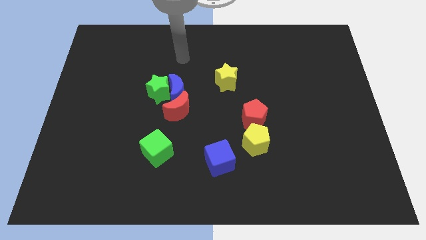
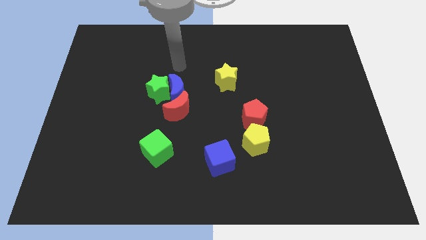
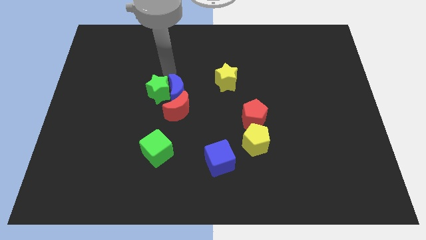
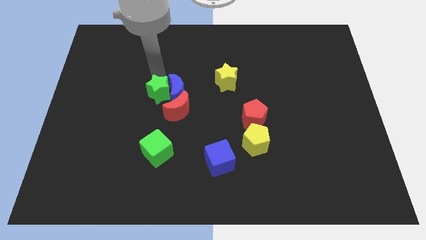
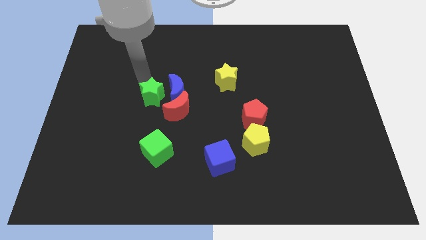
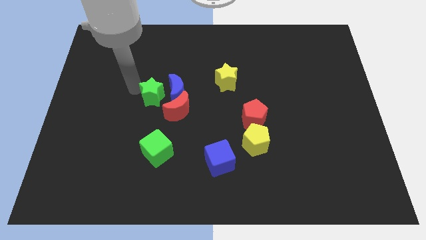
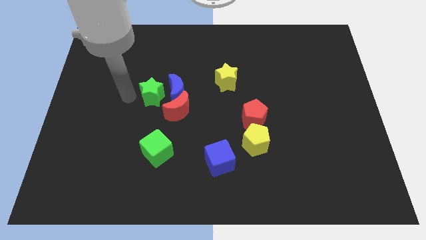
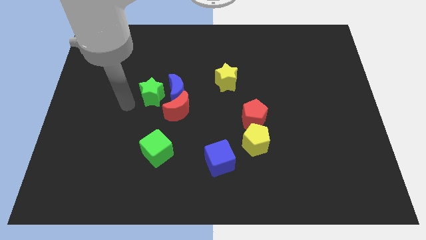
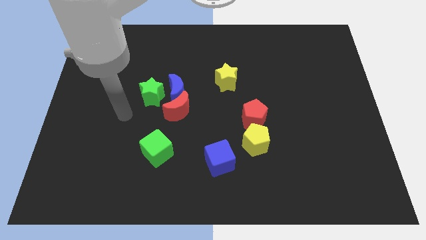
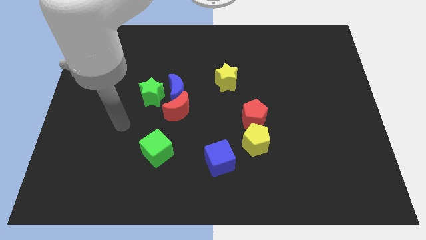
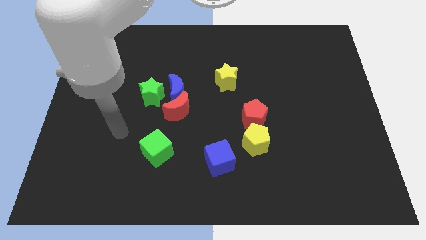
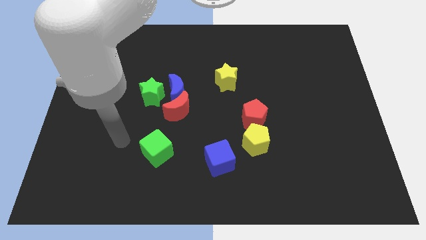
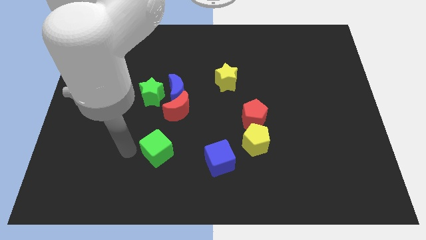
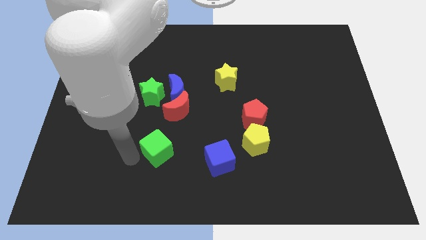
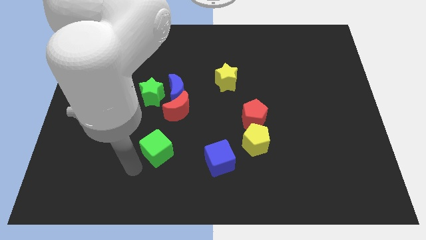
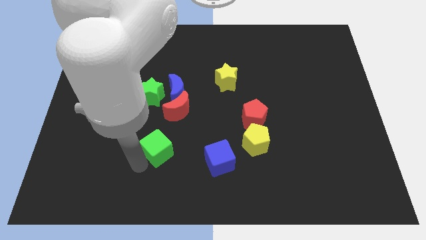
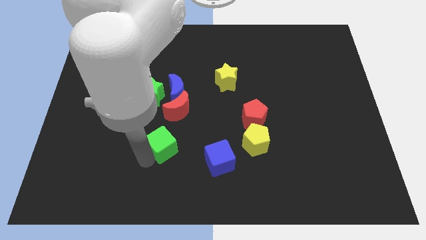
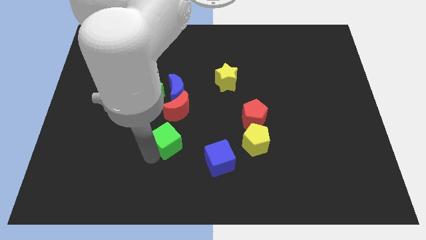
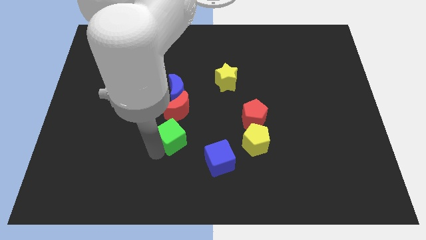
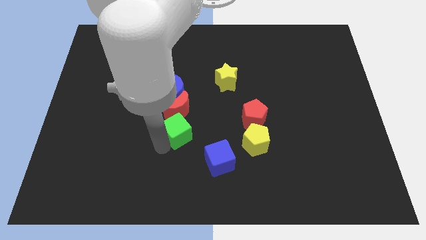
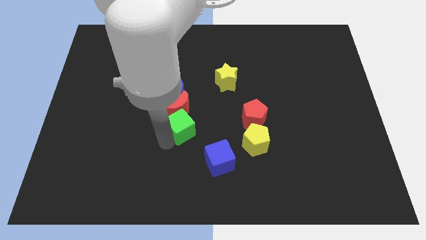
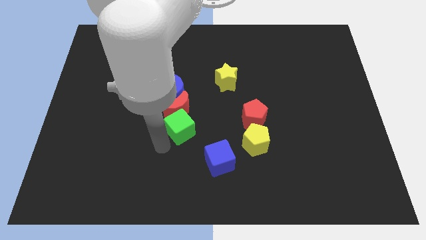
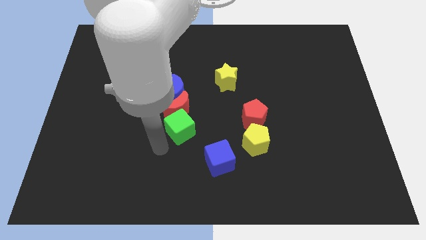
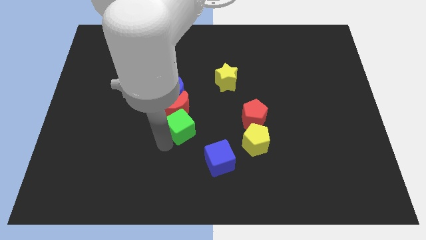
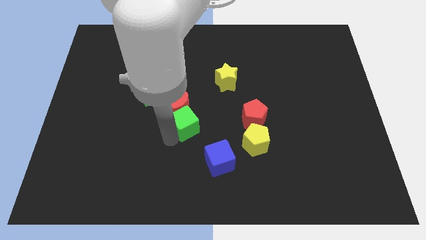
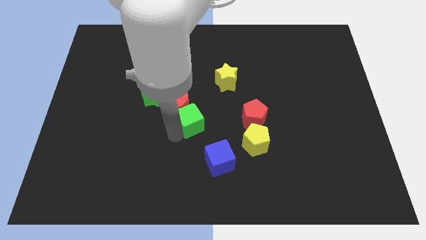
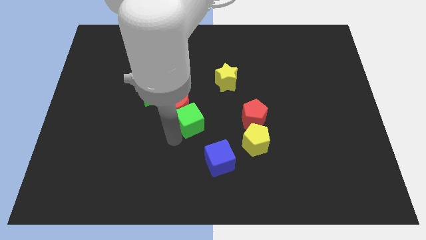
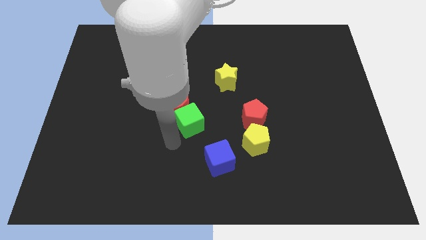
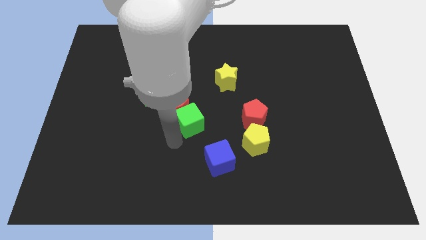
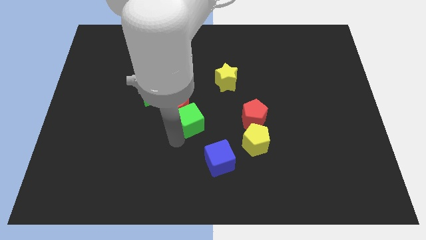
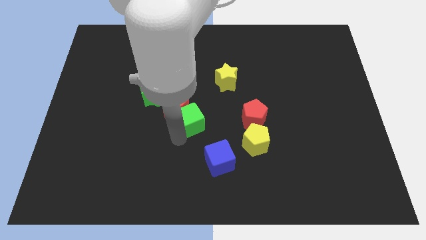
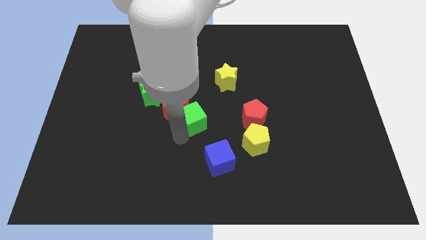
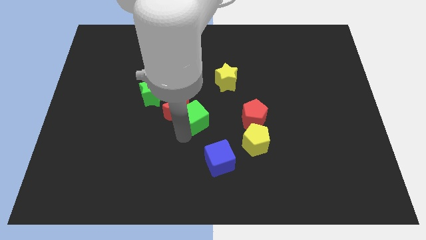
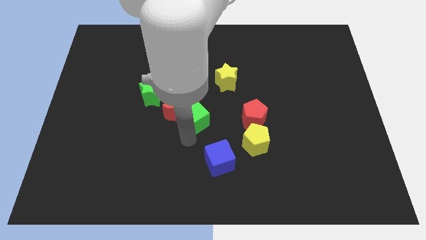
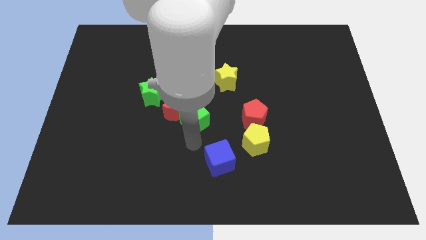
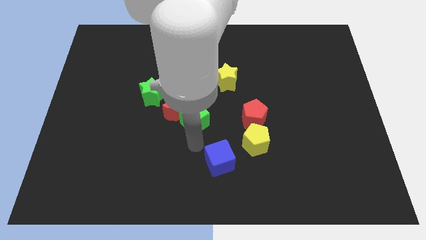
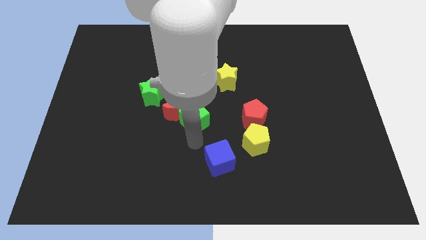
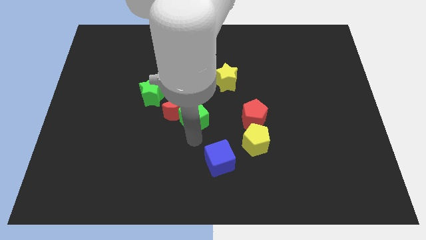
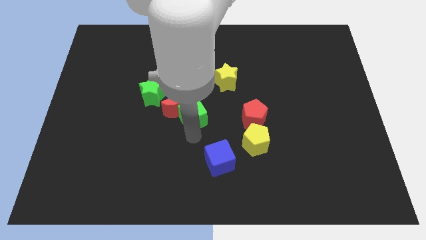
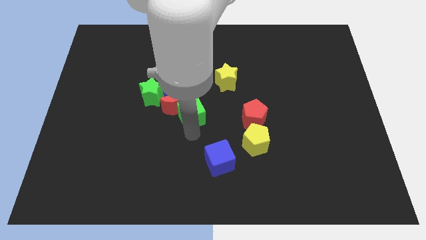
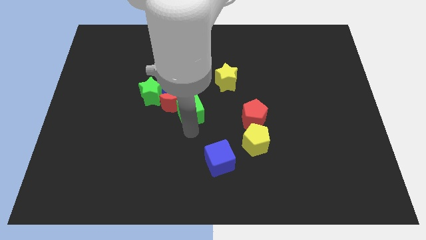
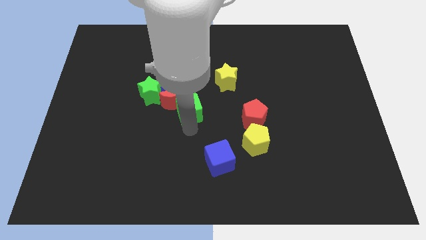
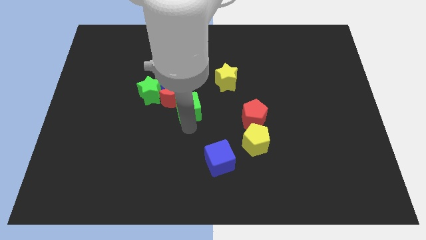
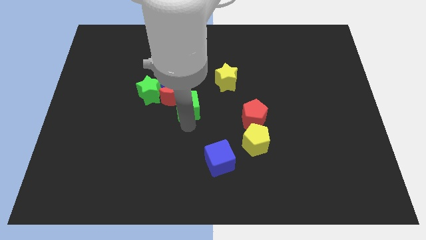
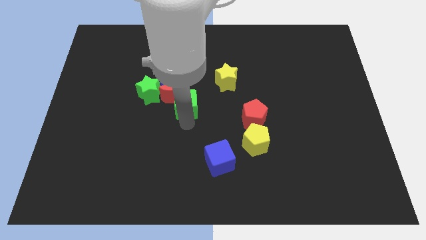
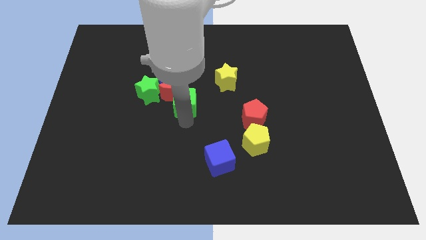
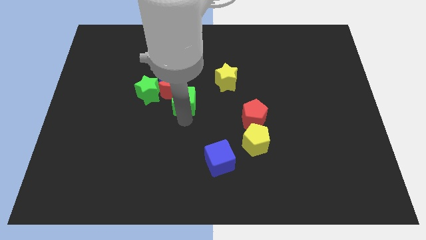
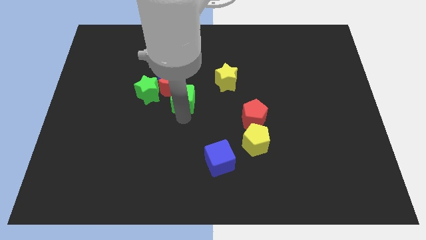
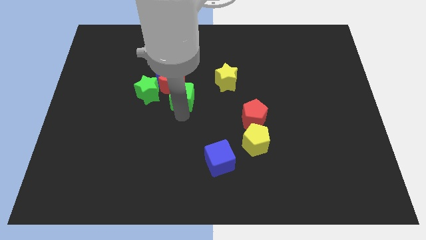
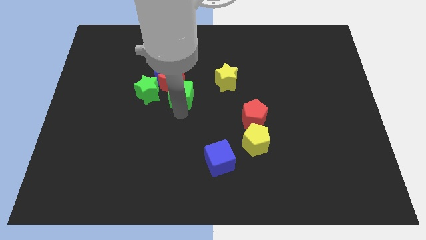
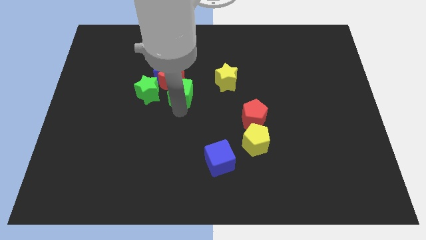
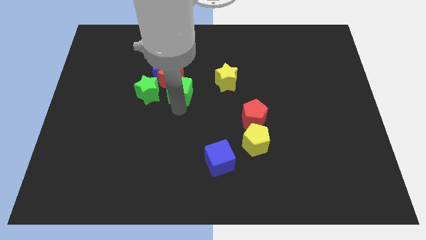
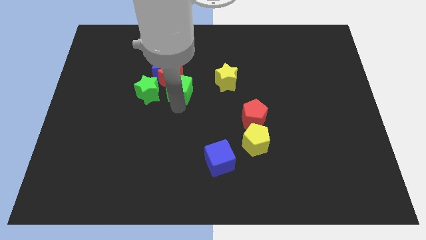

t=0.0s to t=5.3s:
move the green cube to the top right side of the green star

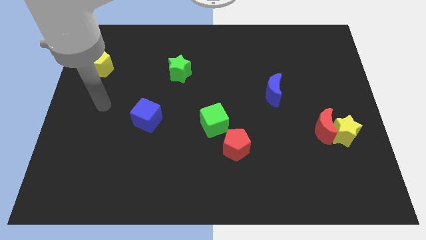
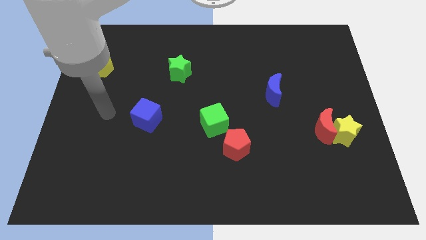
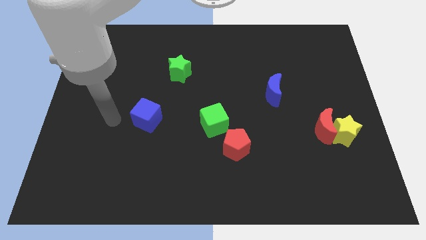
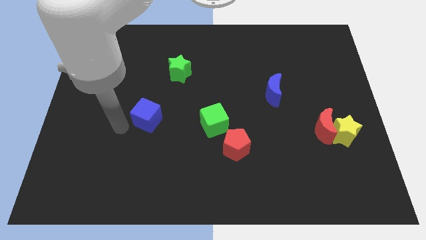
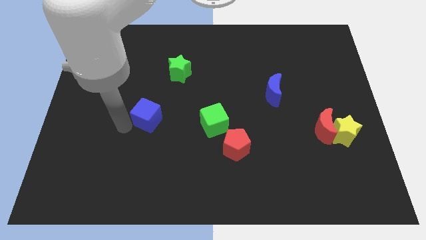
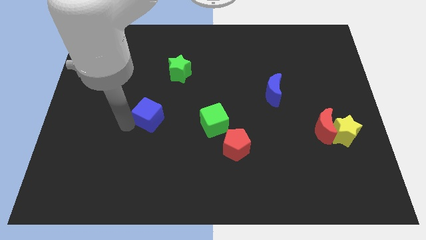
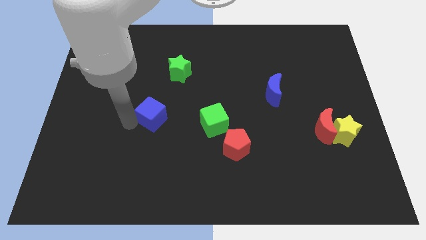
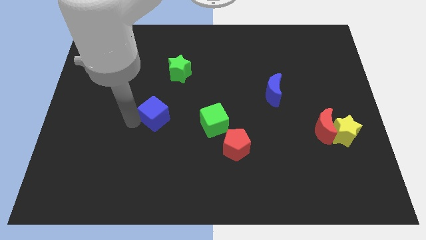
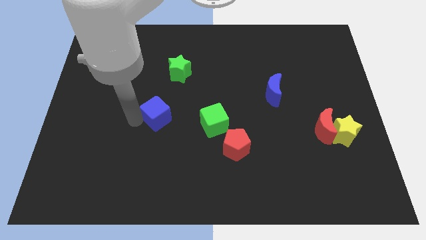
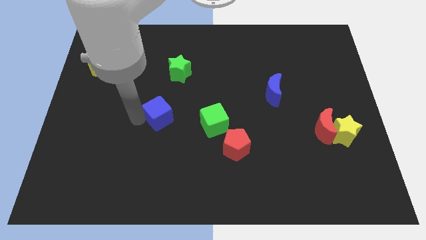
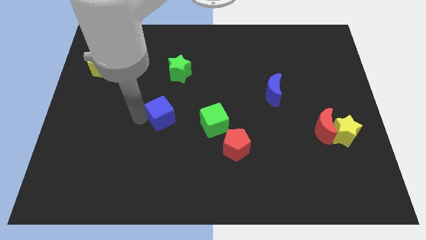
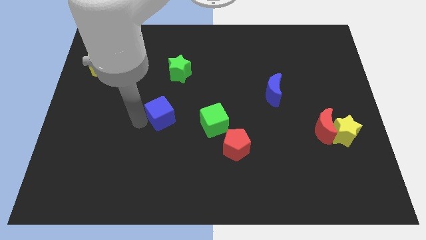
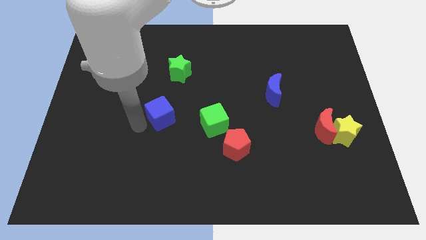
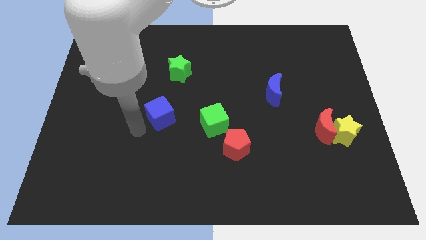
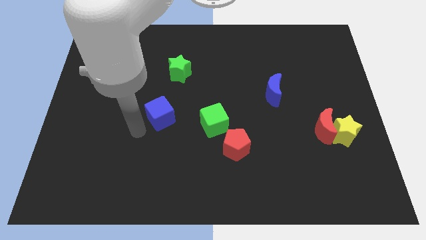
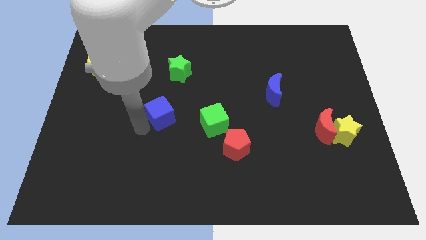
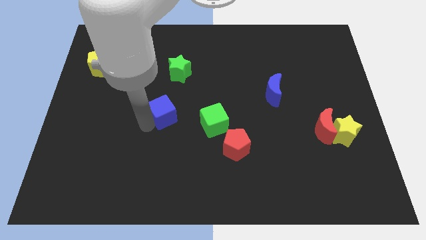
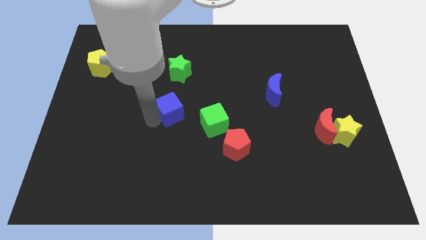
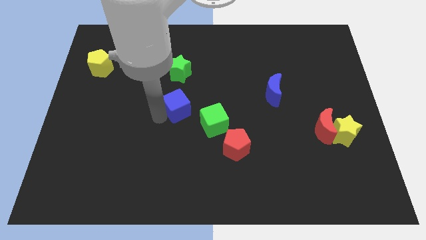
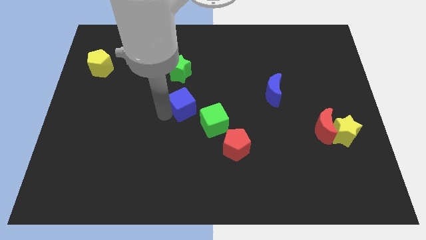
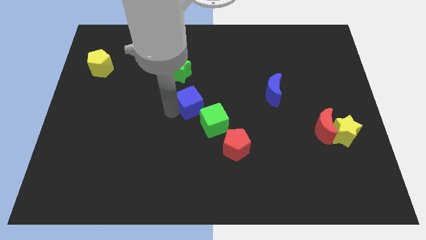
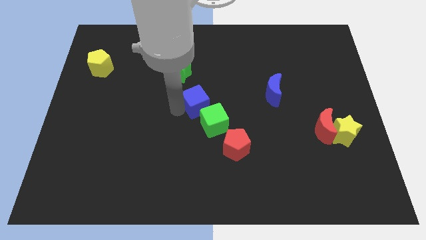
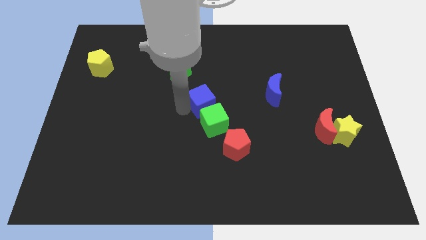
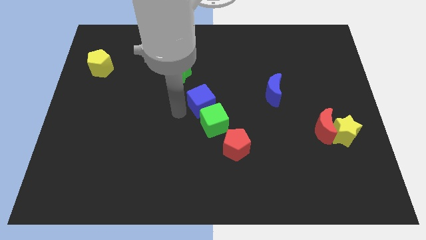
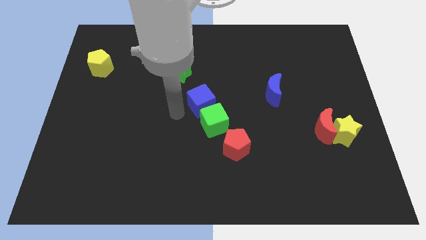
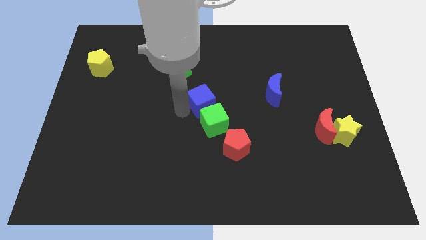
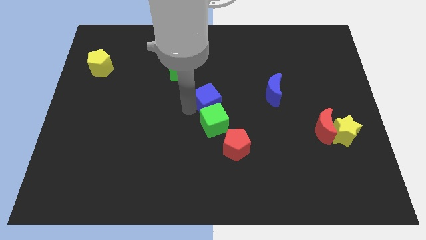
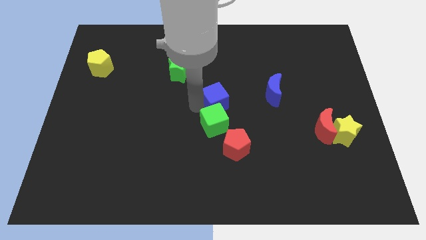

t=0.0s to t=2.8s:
put the blue cube to the left of the blue moon
